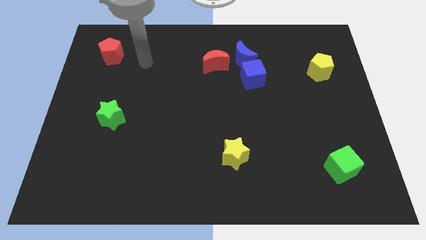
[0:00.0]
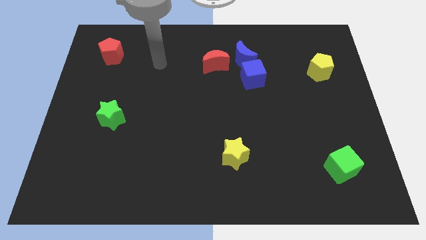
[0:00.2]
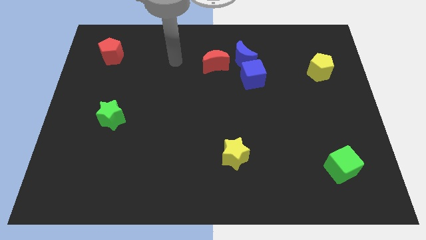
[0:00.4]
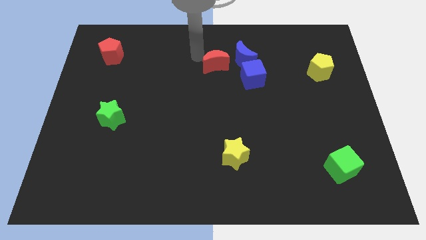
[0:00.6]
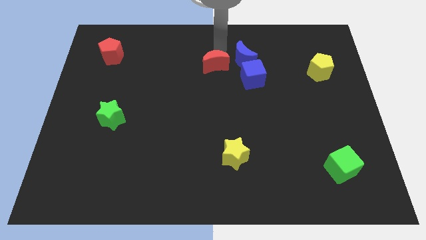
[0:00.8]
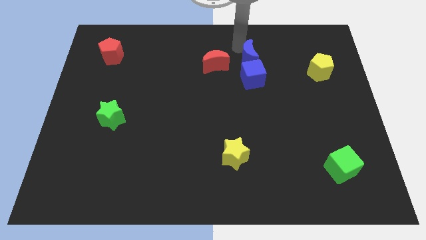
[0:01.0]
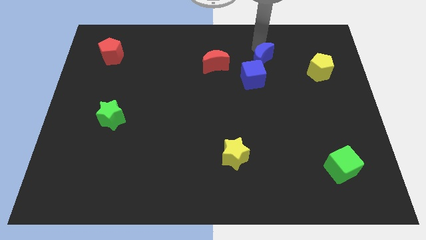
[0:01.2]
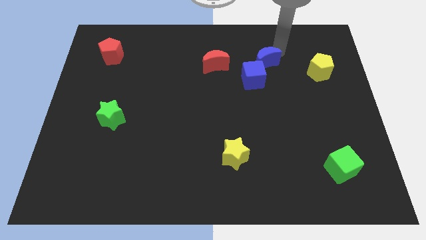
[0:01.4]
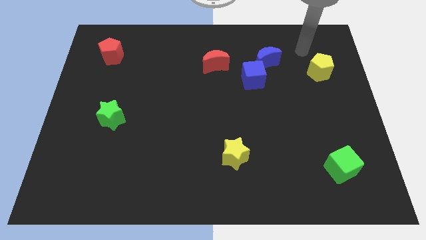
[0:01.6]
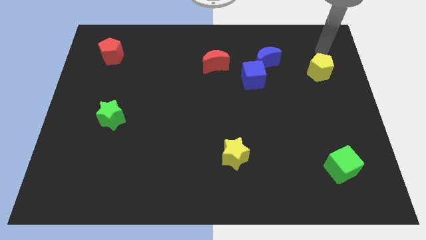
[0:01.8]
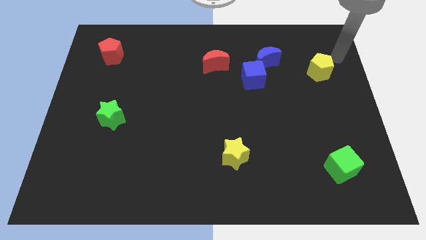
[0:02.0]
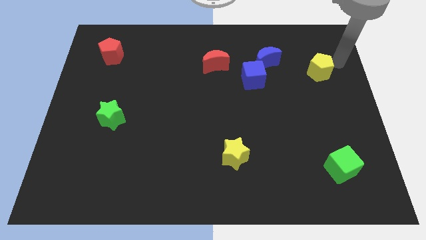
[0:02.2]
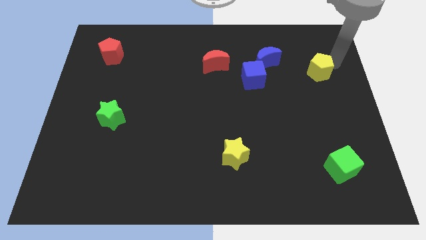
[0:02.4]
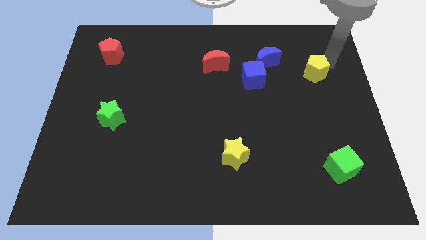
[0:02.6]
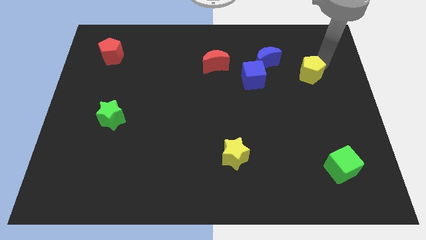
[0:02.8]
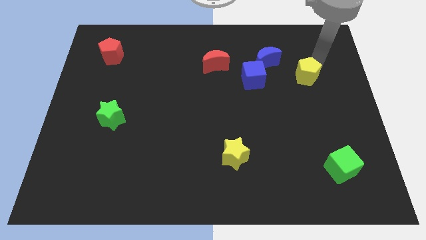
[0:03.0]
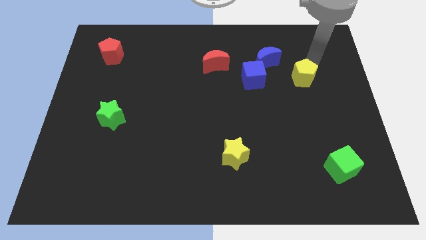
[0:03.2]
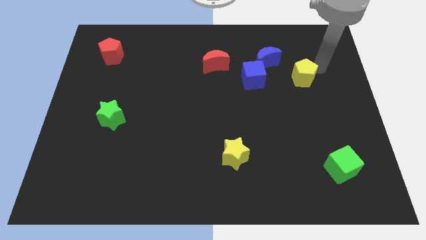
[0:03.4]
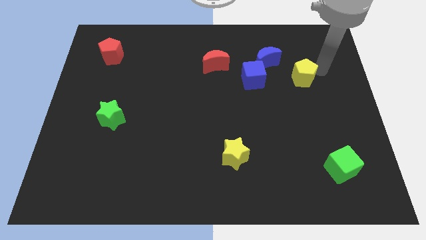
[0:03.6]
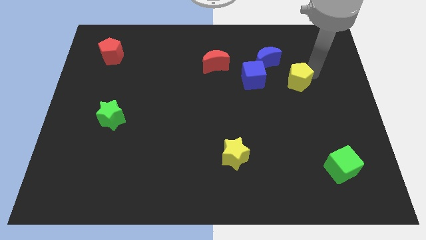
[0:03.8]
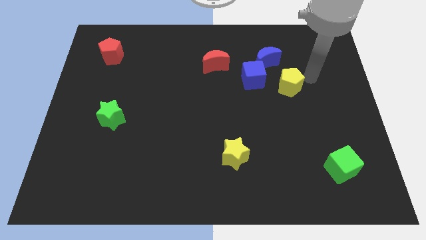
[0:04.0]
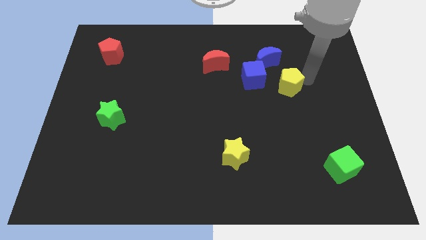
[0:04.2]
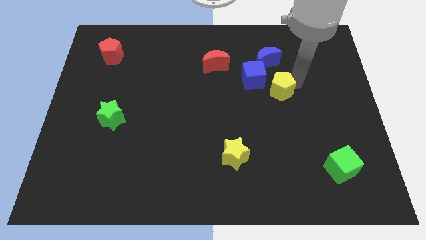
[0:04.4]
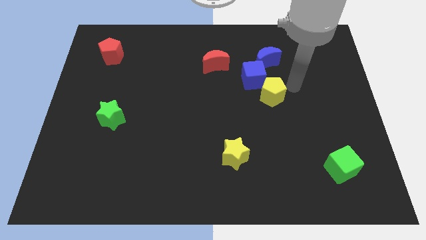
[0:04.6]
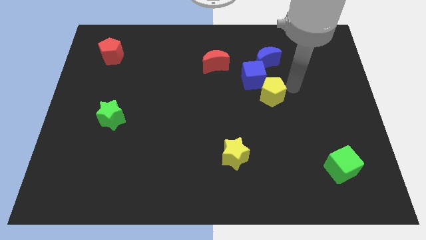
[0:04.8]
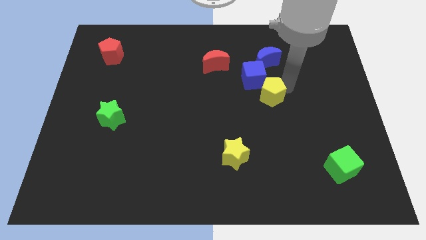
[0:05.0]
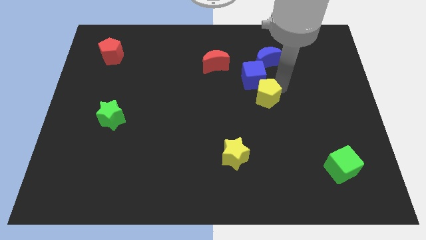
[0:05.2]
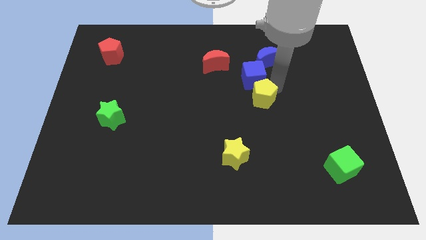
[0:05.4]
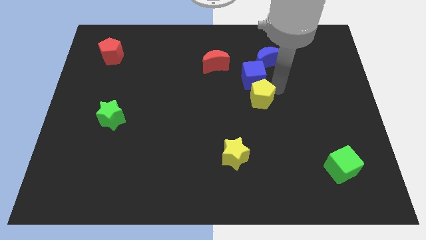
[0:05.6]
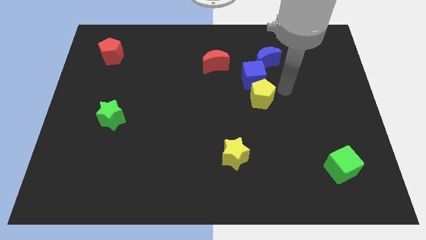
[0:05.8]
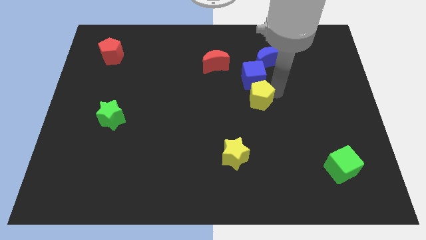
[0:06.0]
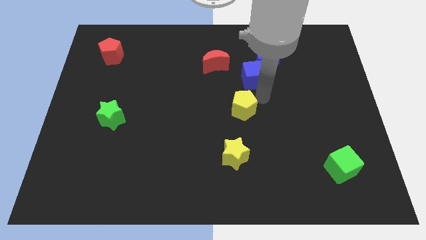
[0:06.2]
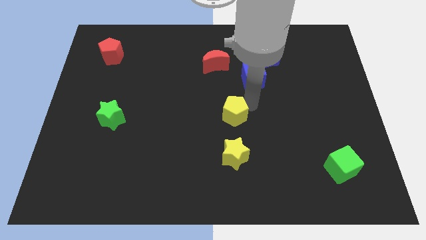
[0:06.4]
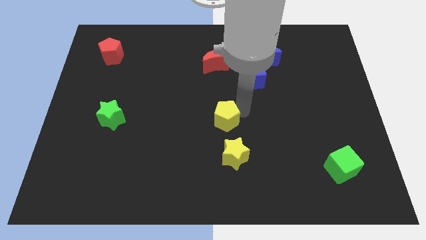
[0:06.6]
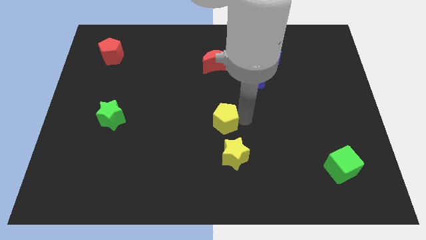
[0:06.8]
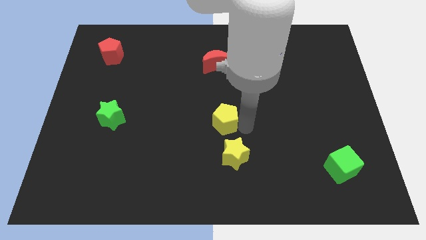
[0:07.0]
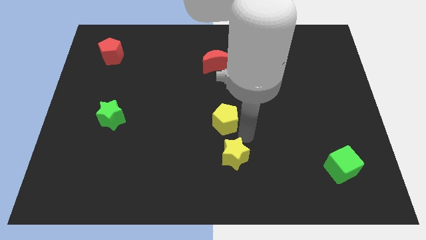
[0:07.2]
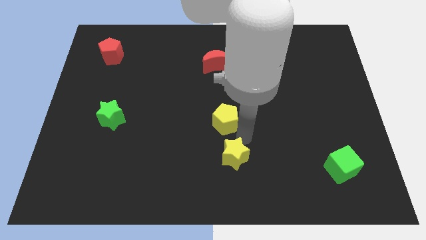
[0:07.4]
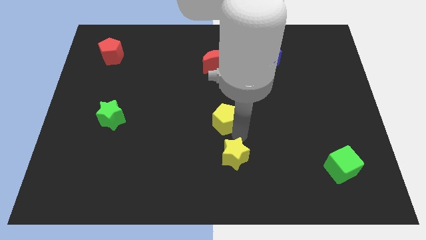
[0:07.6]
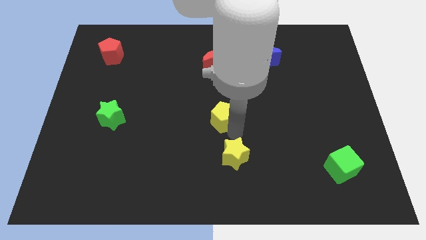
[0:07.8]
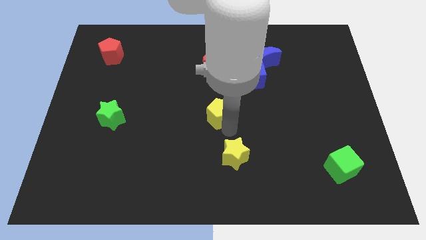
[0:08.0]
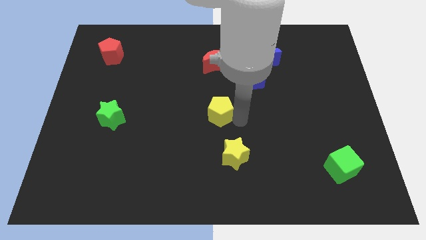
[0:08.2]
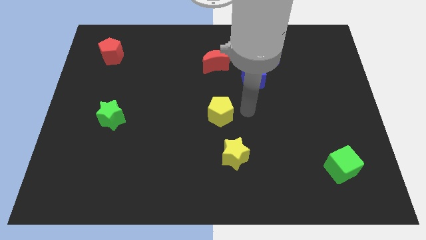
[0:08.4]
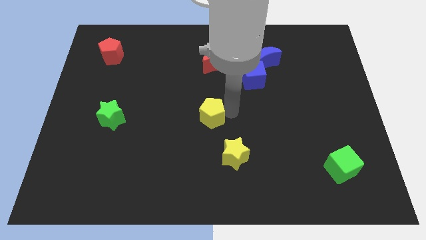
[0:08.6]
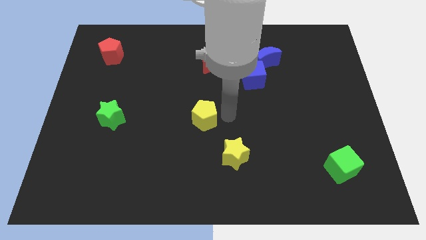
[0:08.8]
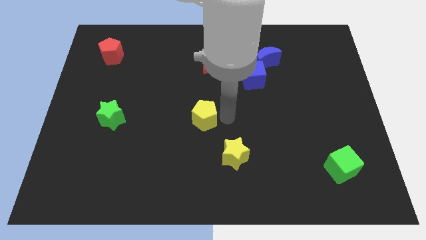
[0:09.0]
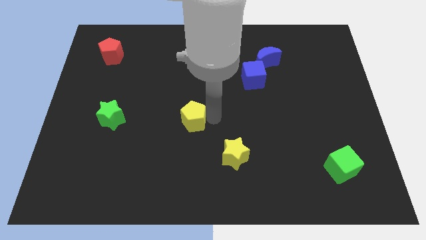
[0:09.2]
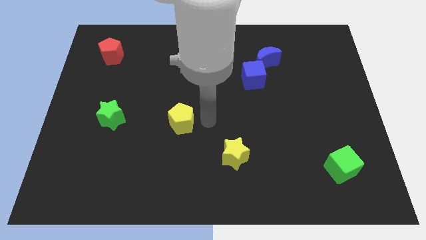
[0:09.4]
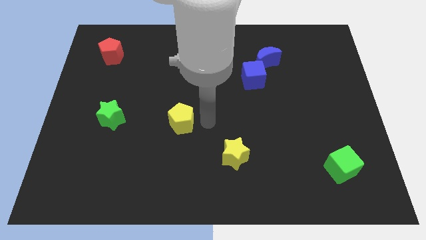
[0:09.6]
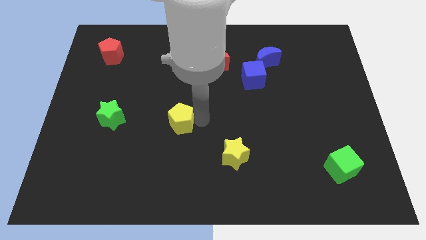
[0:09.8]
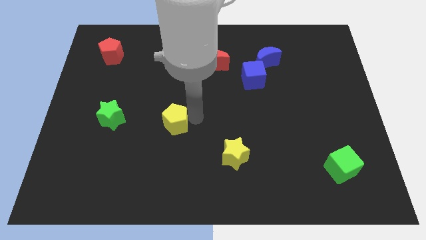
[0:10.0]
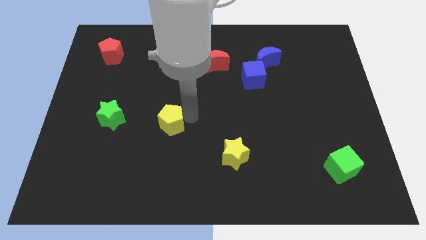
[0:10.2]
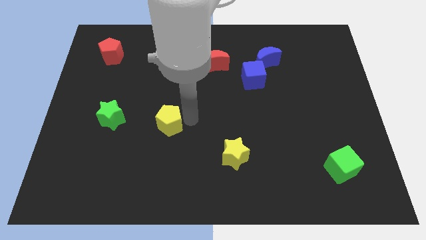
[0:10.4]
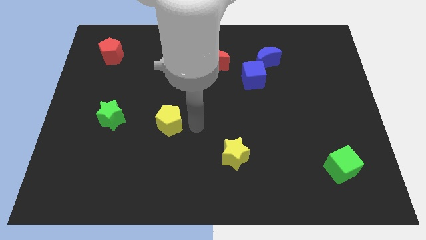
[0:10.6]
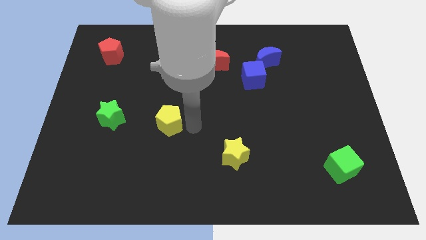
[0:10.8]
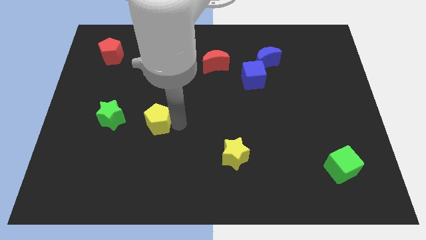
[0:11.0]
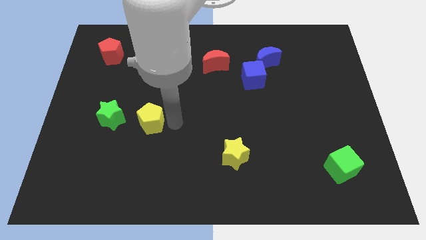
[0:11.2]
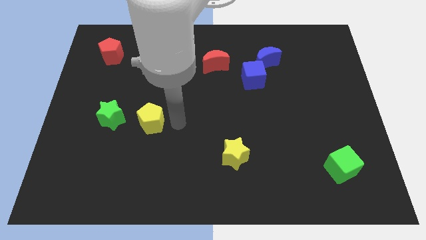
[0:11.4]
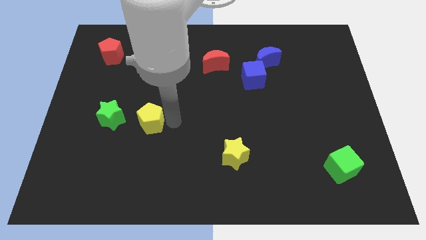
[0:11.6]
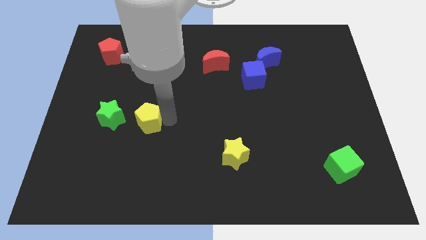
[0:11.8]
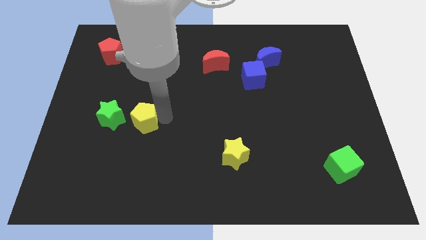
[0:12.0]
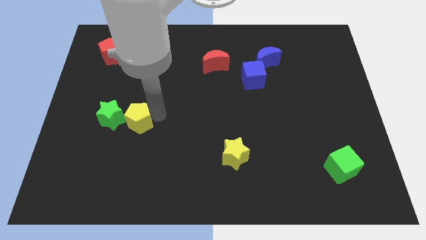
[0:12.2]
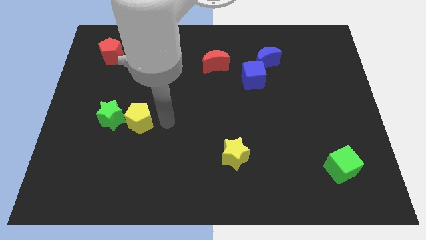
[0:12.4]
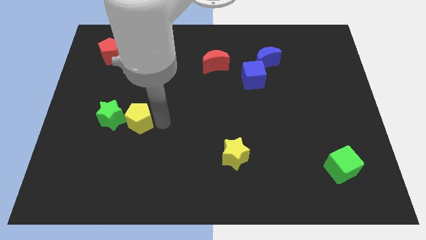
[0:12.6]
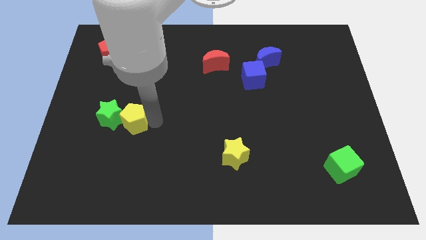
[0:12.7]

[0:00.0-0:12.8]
slide the yellow pentagon towards the green star
